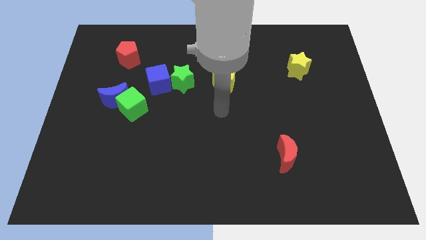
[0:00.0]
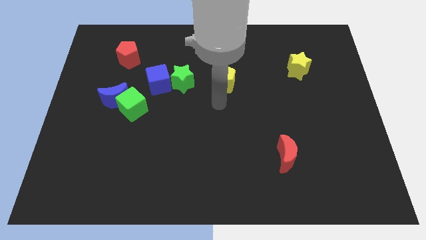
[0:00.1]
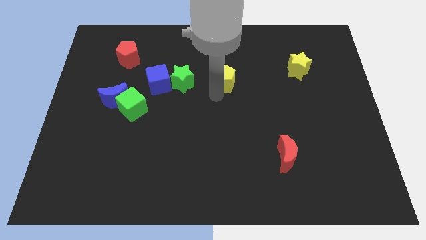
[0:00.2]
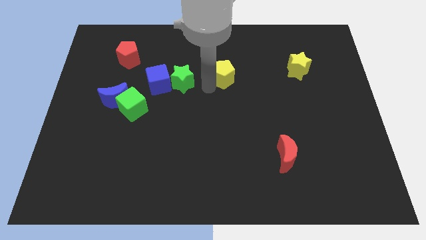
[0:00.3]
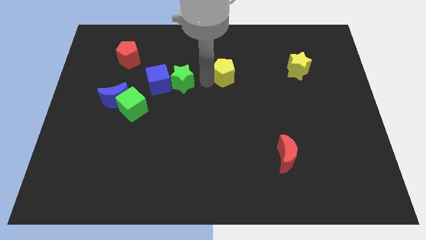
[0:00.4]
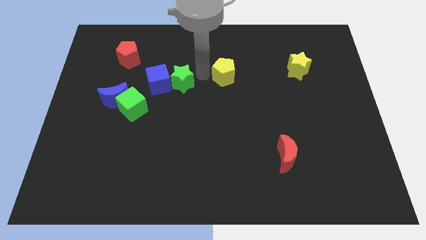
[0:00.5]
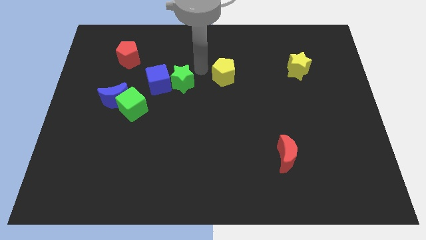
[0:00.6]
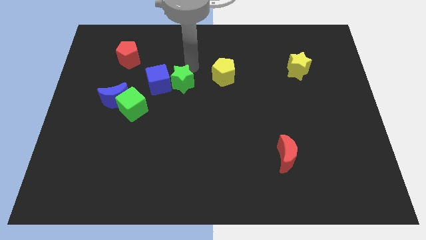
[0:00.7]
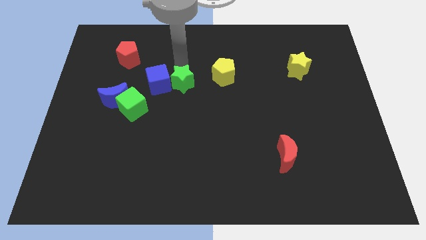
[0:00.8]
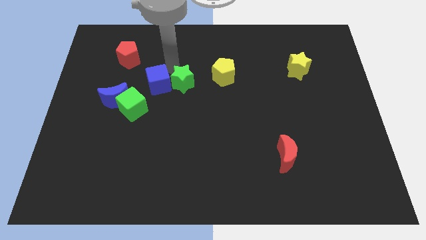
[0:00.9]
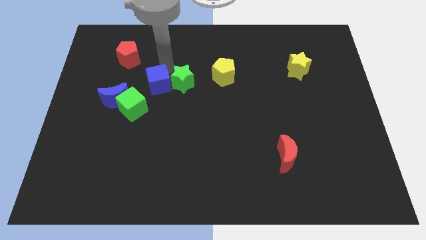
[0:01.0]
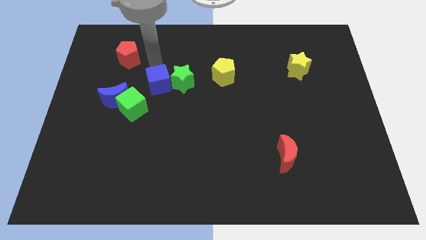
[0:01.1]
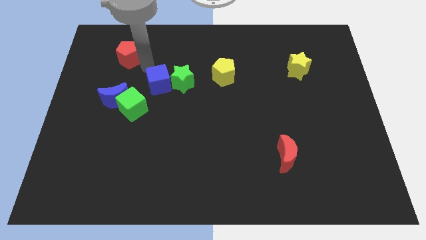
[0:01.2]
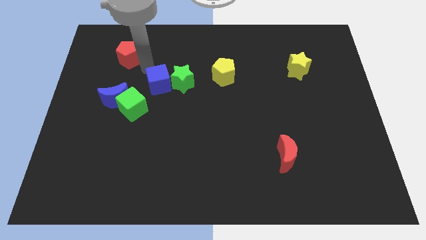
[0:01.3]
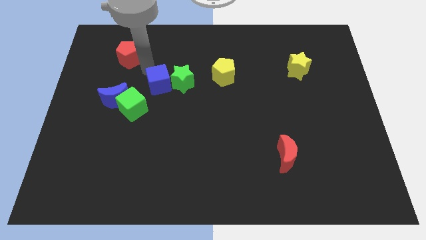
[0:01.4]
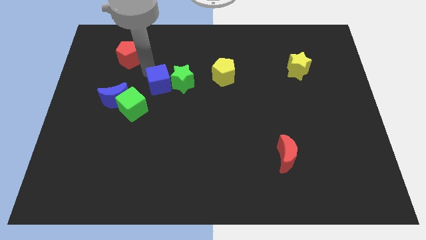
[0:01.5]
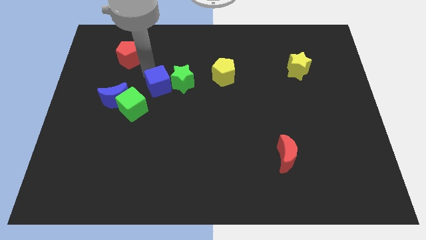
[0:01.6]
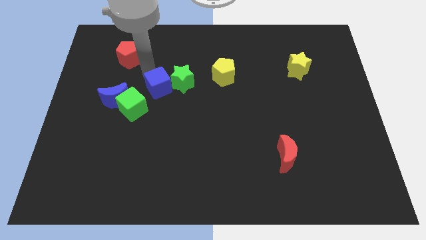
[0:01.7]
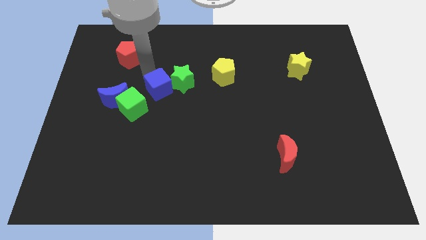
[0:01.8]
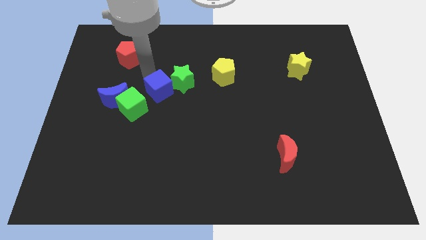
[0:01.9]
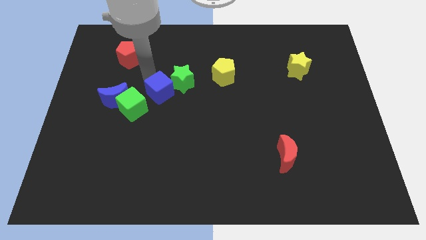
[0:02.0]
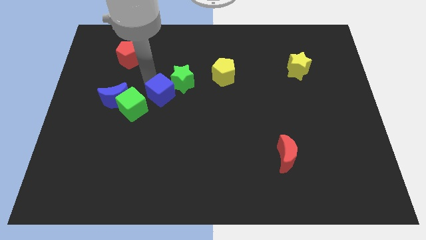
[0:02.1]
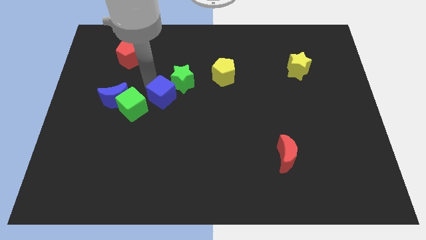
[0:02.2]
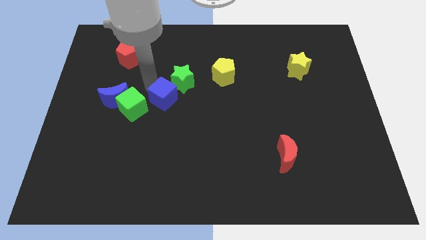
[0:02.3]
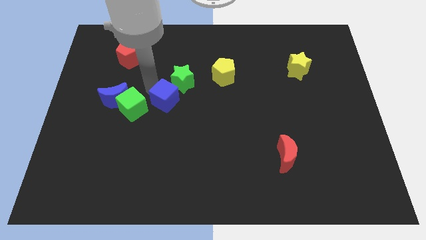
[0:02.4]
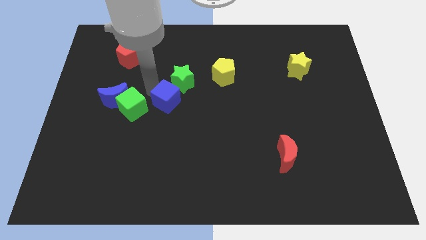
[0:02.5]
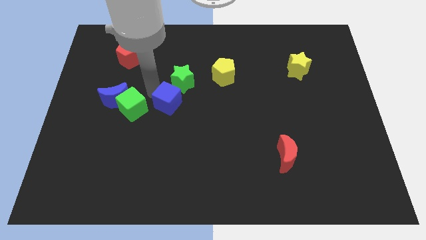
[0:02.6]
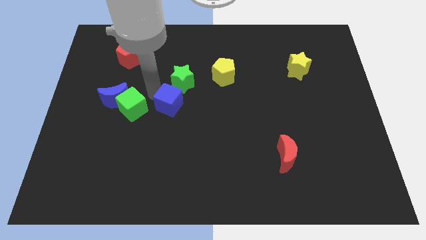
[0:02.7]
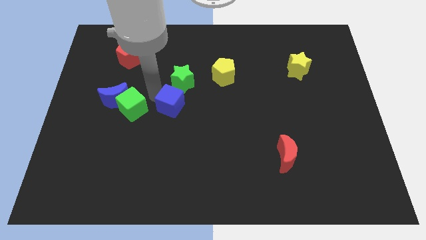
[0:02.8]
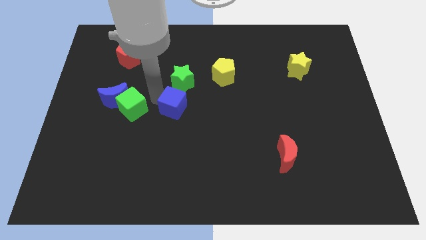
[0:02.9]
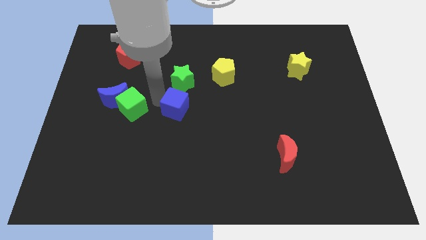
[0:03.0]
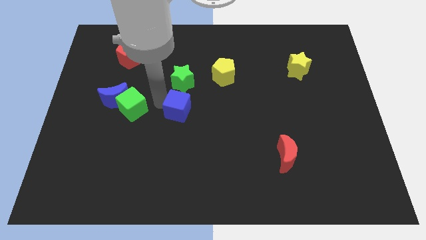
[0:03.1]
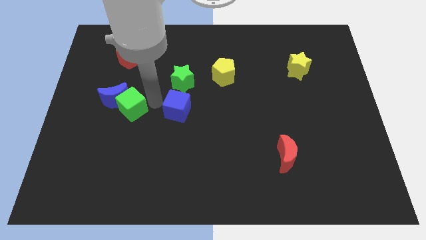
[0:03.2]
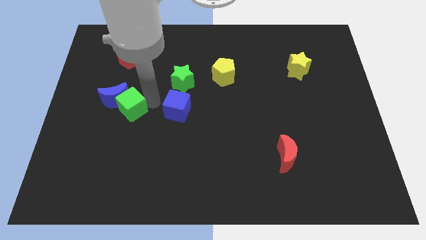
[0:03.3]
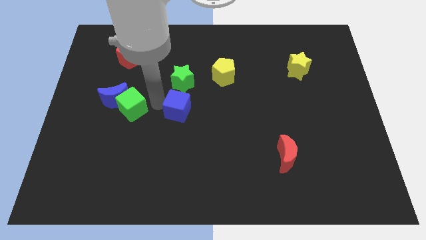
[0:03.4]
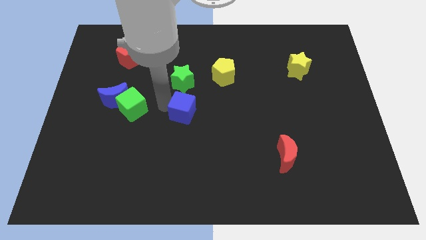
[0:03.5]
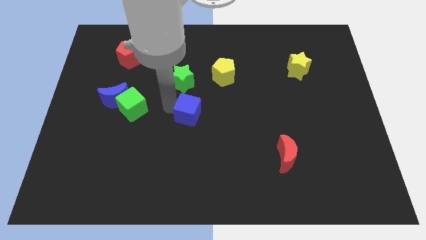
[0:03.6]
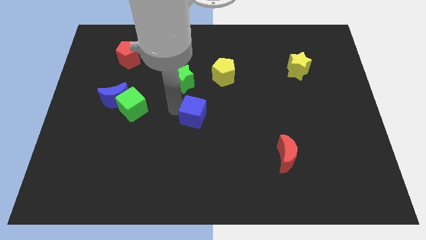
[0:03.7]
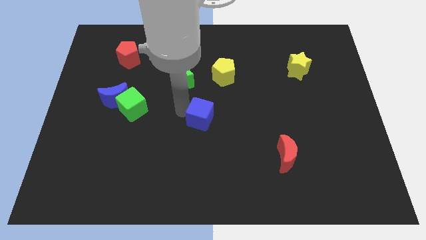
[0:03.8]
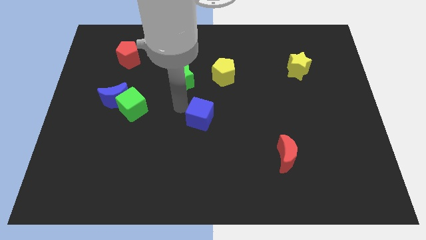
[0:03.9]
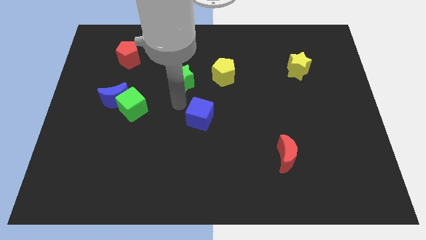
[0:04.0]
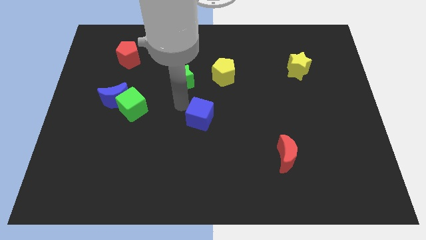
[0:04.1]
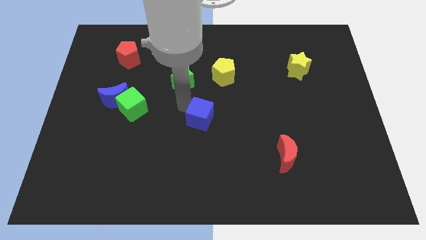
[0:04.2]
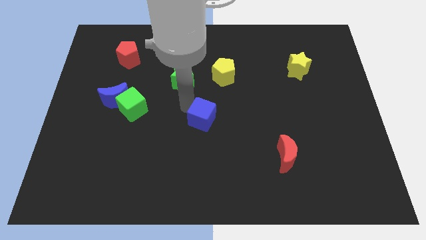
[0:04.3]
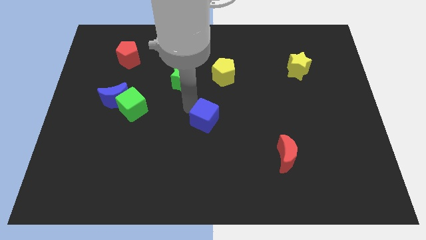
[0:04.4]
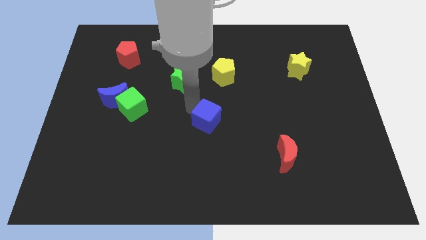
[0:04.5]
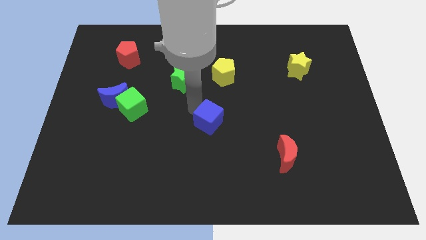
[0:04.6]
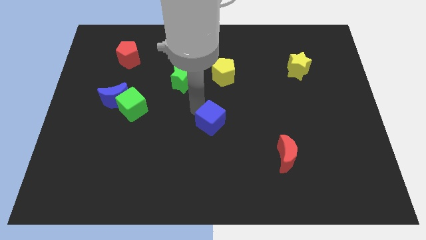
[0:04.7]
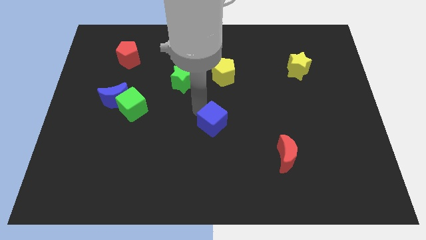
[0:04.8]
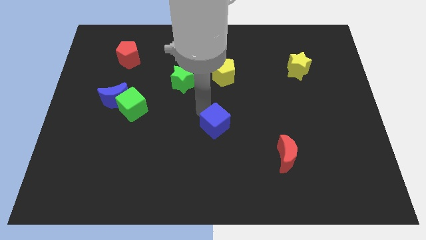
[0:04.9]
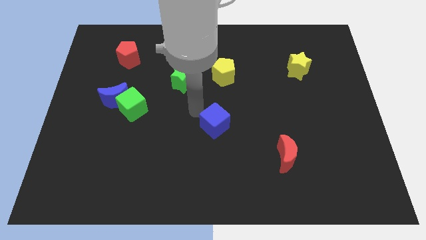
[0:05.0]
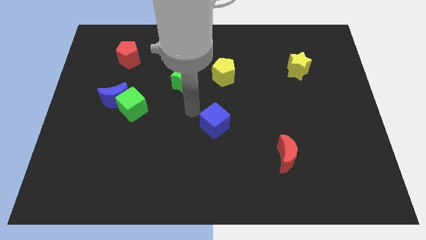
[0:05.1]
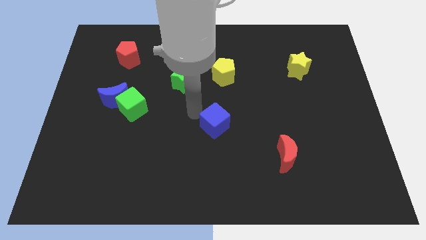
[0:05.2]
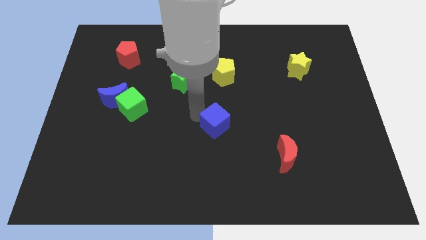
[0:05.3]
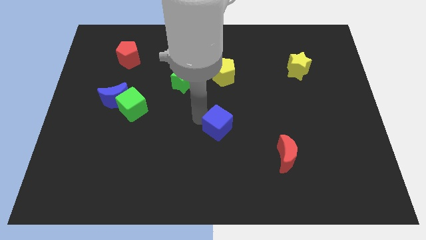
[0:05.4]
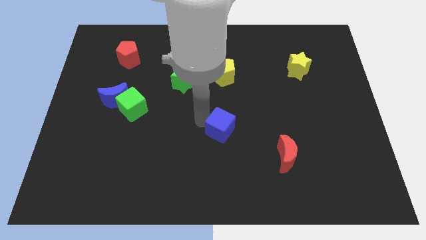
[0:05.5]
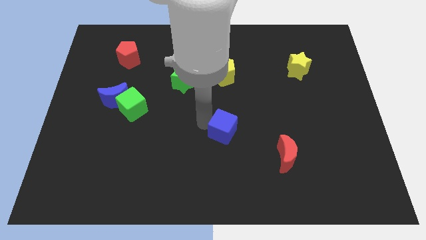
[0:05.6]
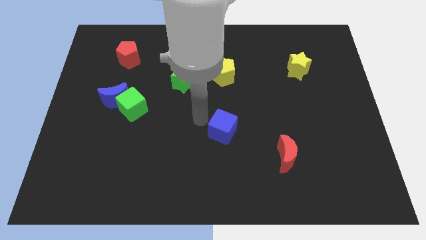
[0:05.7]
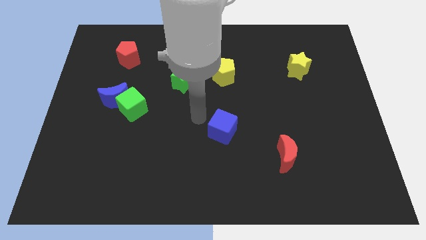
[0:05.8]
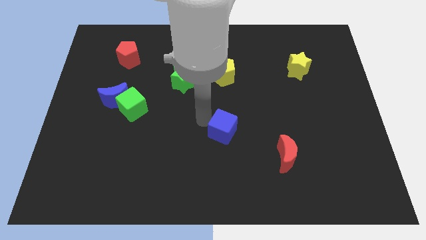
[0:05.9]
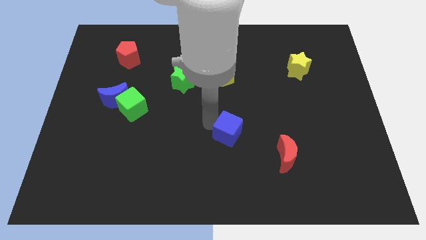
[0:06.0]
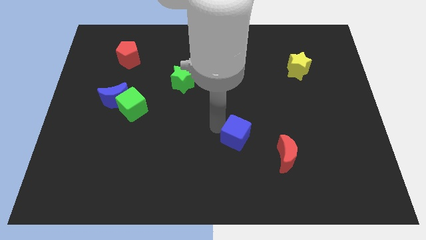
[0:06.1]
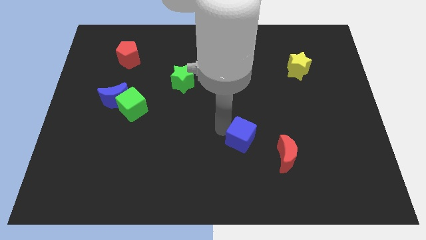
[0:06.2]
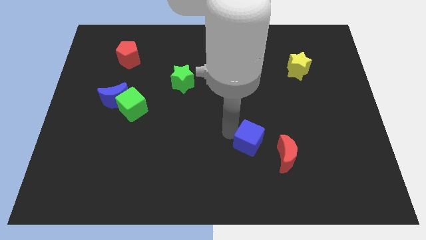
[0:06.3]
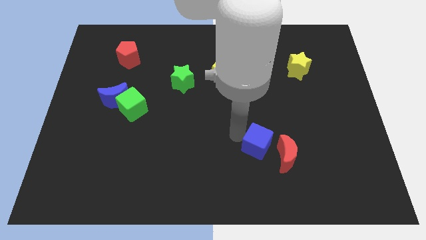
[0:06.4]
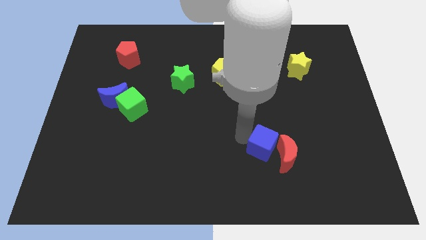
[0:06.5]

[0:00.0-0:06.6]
put the blue cube next to the red moon
